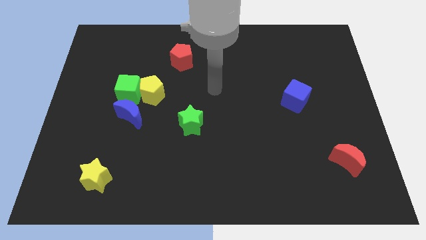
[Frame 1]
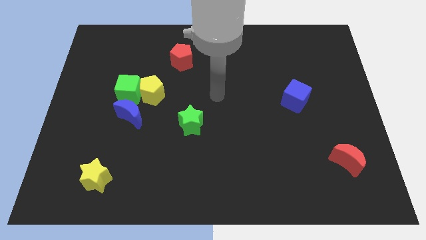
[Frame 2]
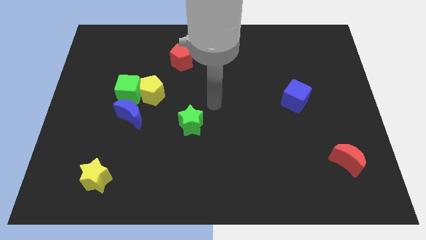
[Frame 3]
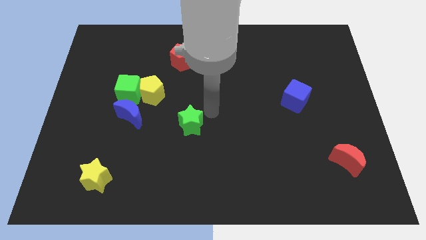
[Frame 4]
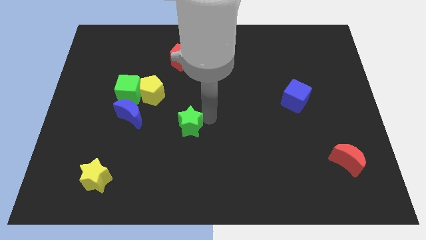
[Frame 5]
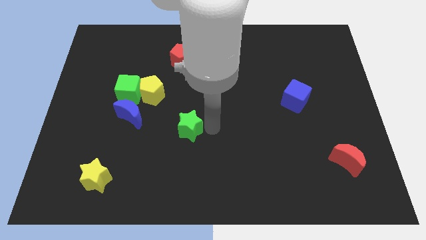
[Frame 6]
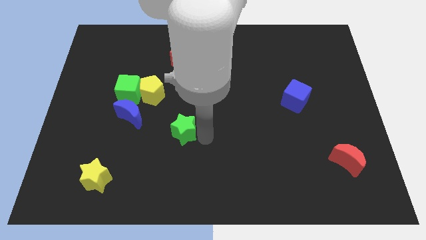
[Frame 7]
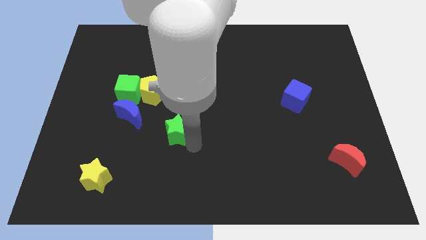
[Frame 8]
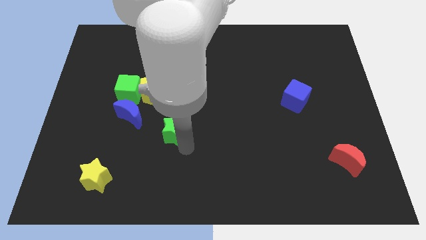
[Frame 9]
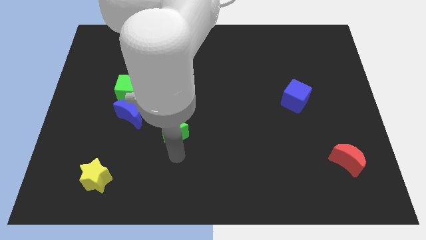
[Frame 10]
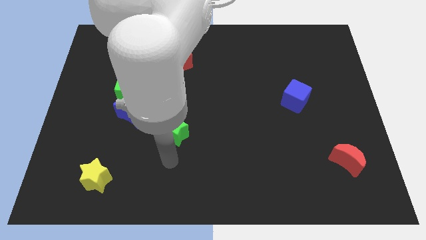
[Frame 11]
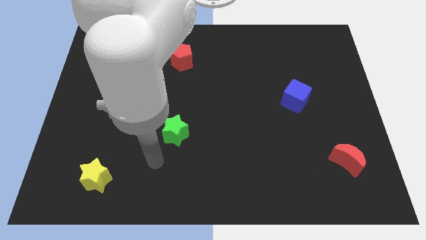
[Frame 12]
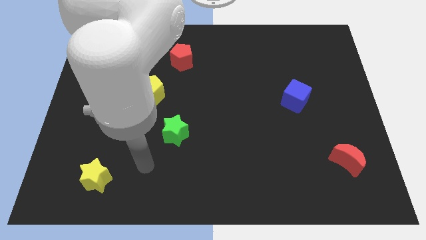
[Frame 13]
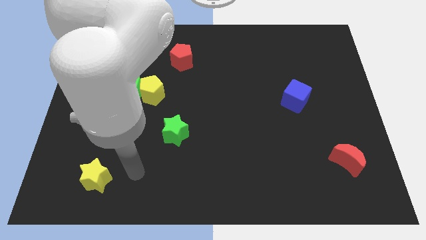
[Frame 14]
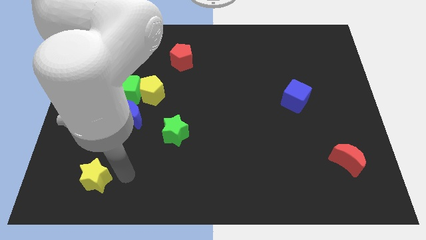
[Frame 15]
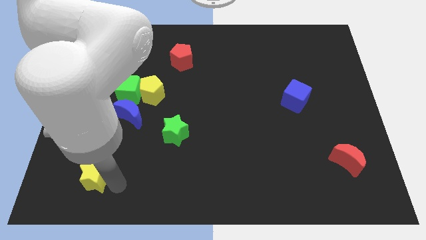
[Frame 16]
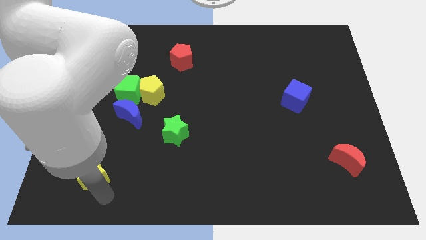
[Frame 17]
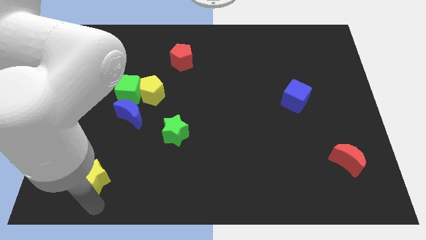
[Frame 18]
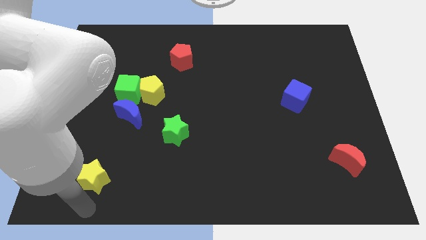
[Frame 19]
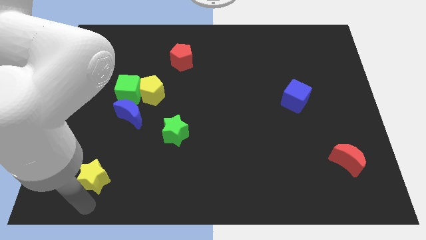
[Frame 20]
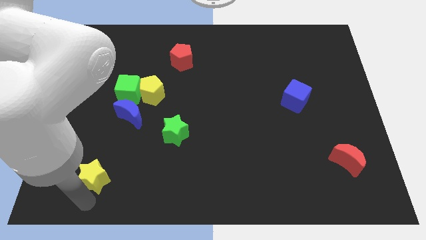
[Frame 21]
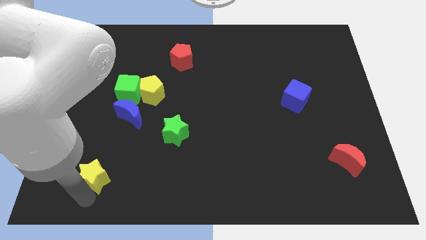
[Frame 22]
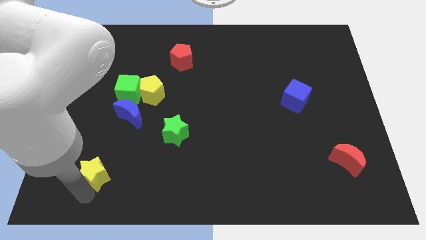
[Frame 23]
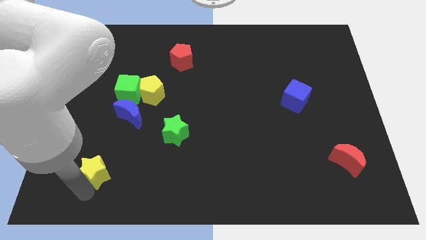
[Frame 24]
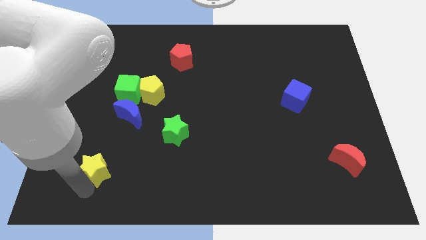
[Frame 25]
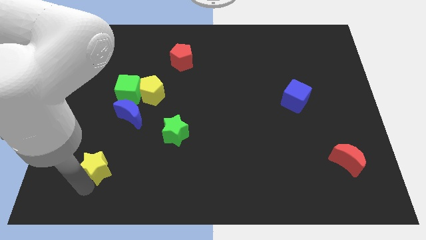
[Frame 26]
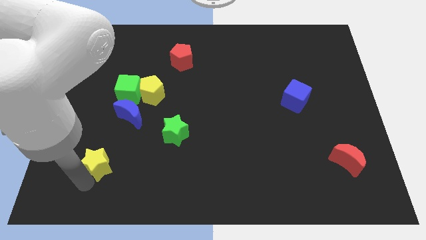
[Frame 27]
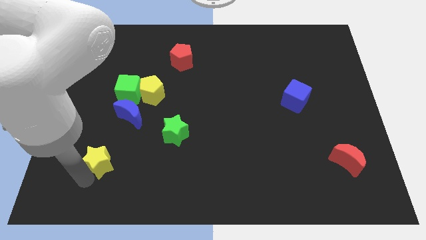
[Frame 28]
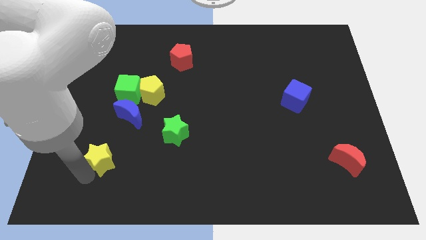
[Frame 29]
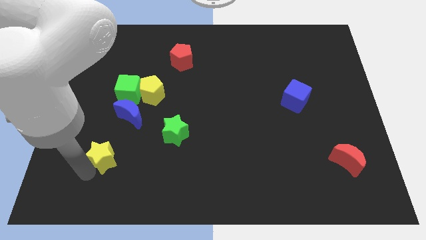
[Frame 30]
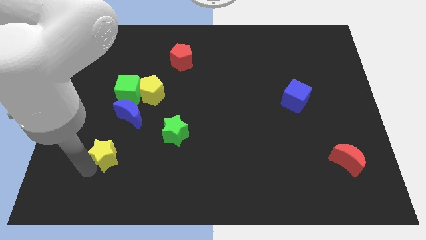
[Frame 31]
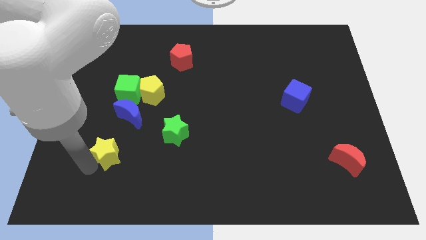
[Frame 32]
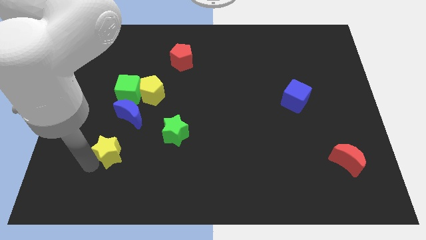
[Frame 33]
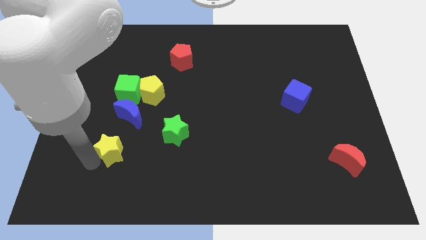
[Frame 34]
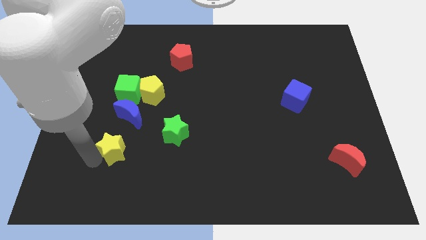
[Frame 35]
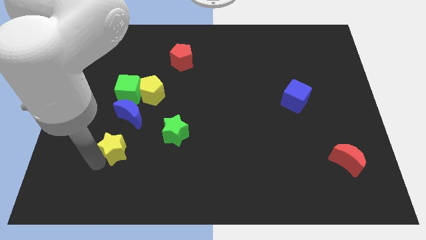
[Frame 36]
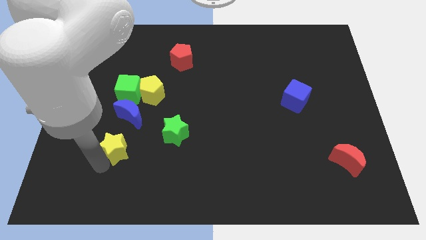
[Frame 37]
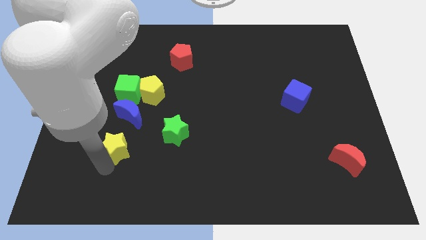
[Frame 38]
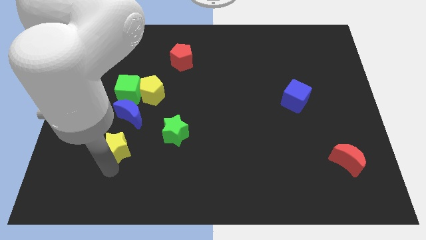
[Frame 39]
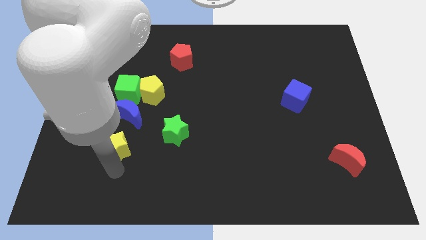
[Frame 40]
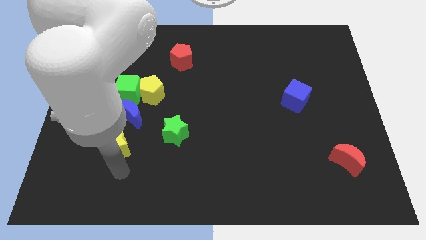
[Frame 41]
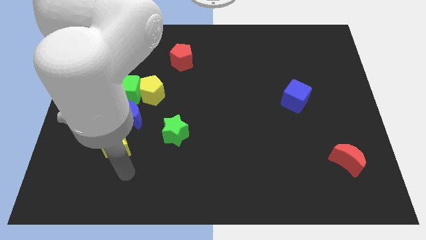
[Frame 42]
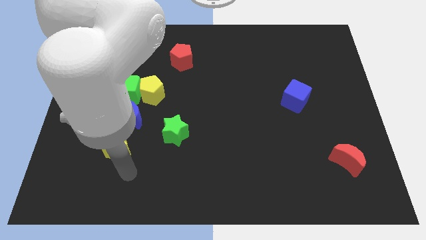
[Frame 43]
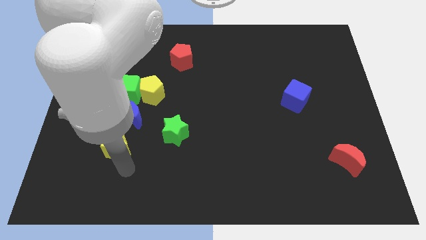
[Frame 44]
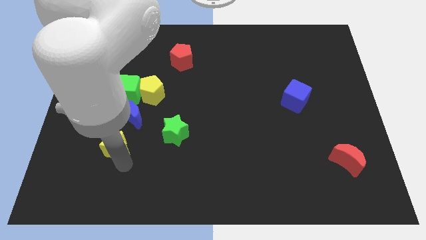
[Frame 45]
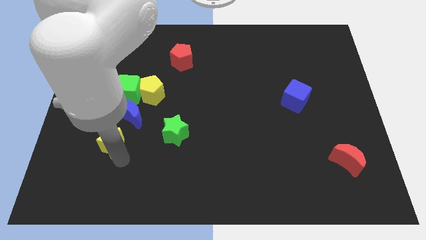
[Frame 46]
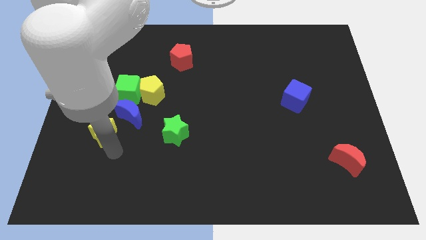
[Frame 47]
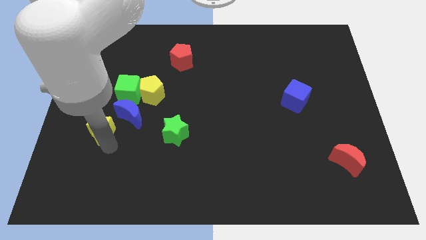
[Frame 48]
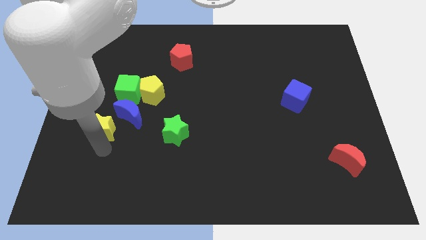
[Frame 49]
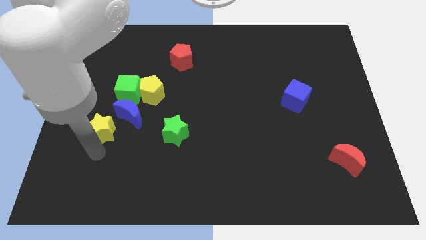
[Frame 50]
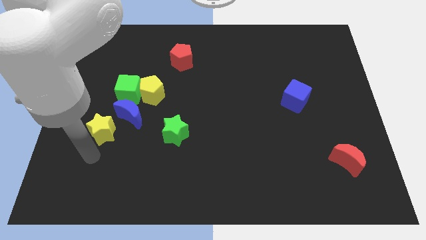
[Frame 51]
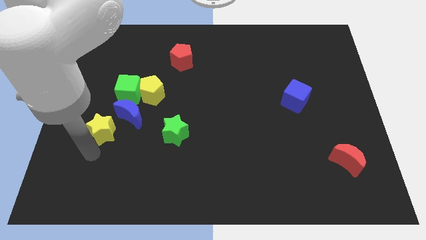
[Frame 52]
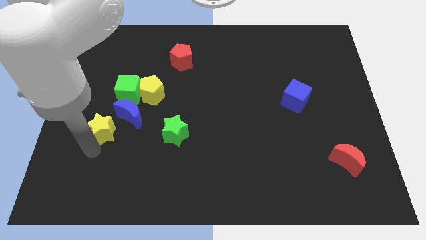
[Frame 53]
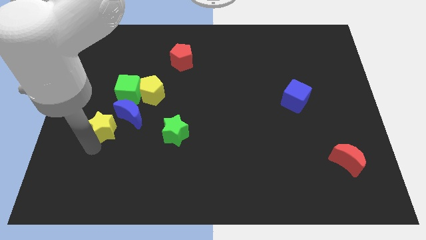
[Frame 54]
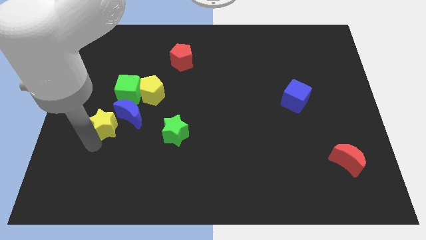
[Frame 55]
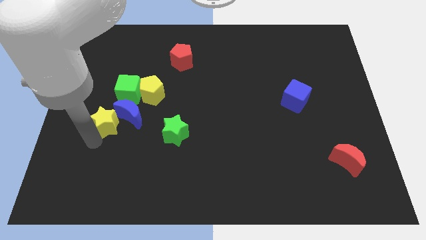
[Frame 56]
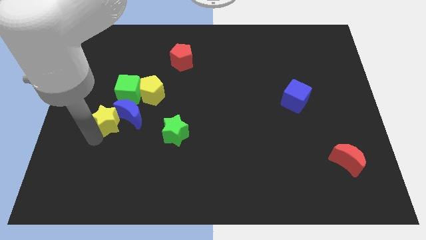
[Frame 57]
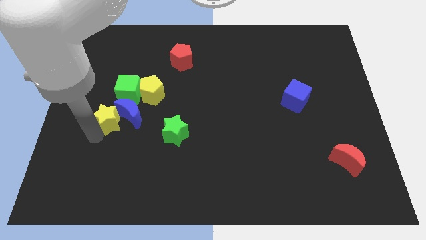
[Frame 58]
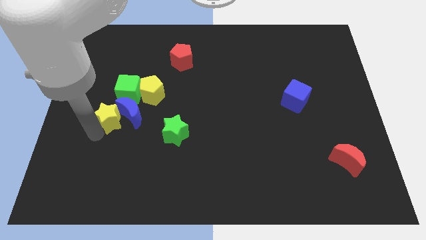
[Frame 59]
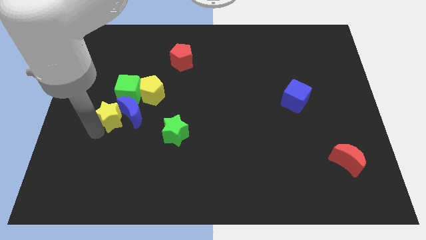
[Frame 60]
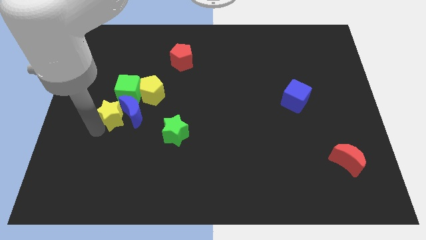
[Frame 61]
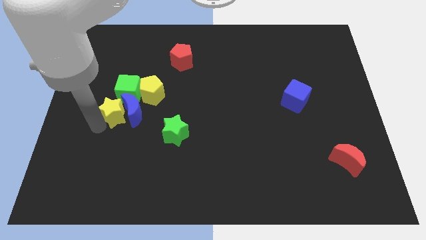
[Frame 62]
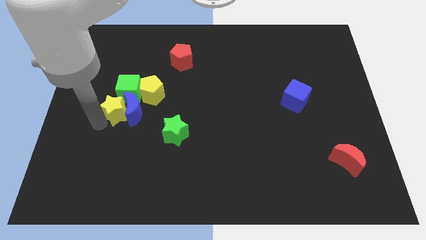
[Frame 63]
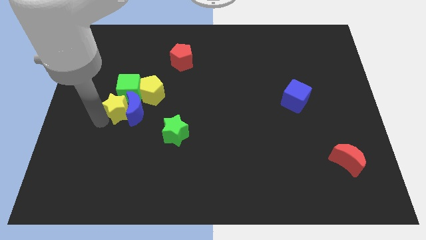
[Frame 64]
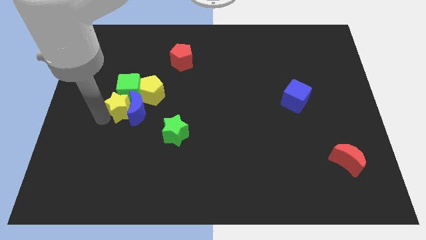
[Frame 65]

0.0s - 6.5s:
move the yellow star close to the green cube

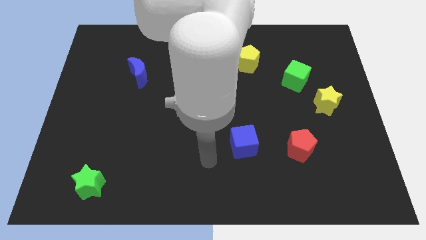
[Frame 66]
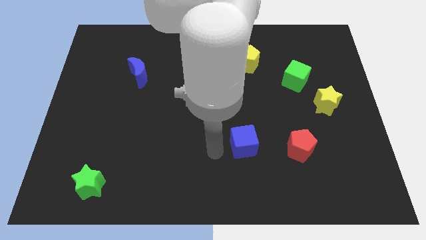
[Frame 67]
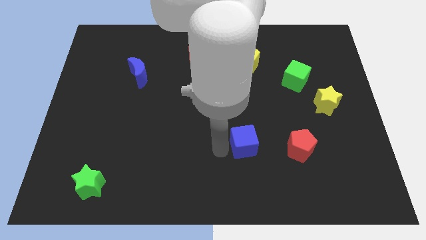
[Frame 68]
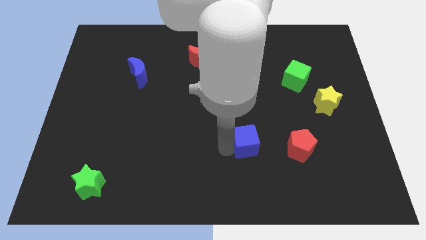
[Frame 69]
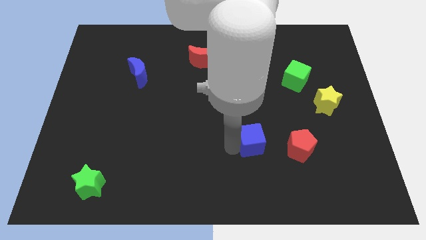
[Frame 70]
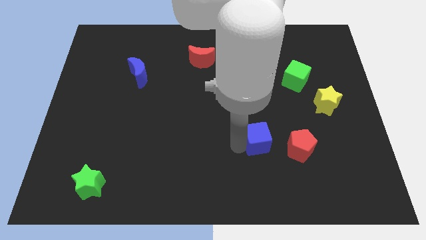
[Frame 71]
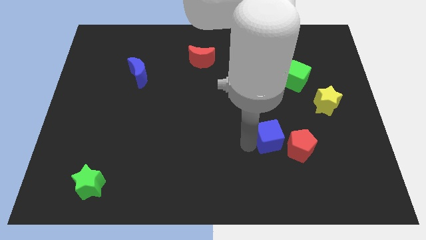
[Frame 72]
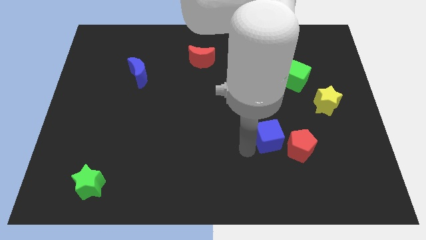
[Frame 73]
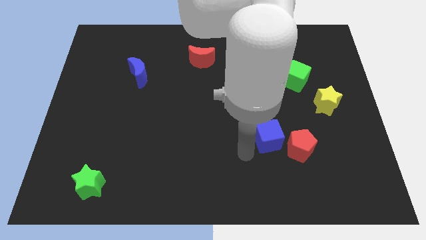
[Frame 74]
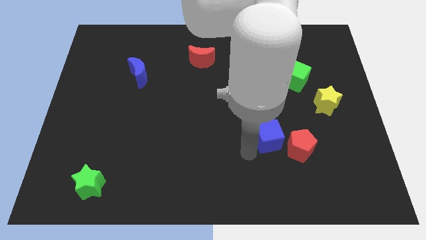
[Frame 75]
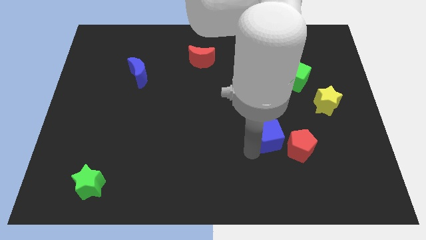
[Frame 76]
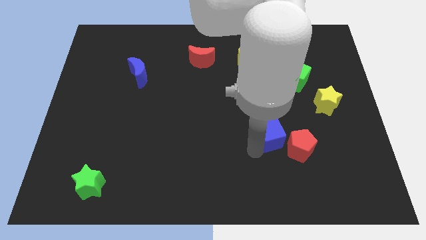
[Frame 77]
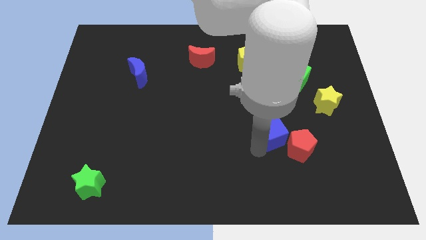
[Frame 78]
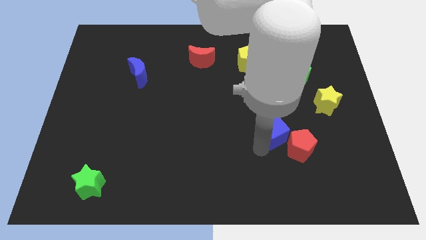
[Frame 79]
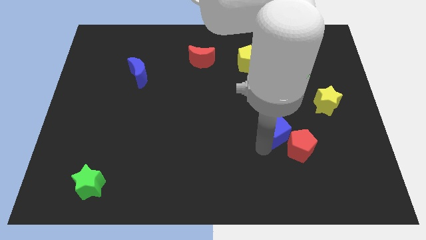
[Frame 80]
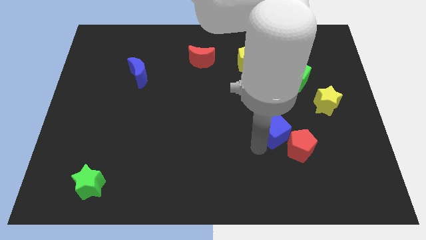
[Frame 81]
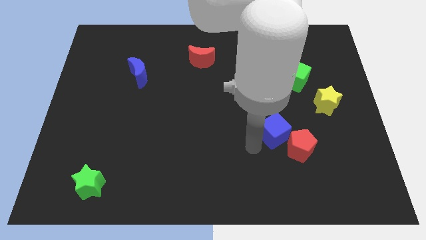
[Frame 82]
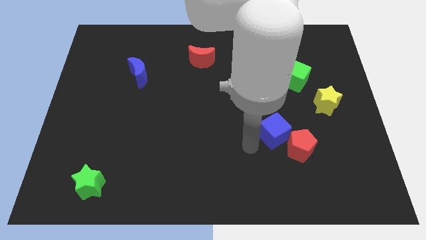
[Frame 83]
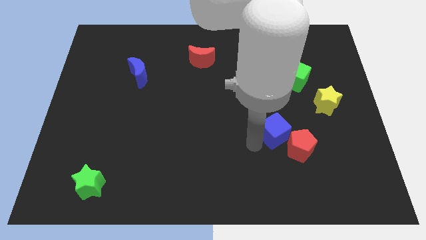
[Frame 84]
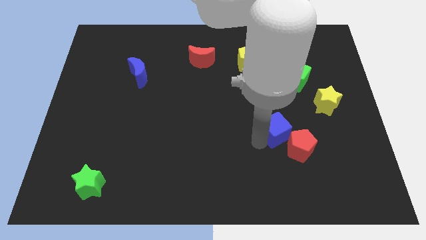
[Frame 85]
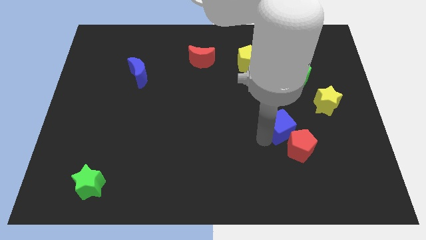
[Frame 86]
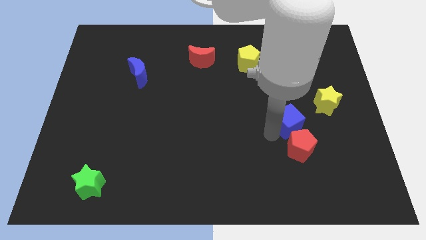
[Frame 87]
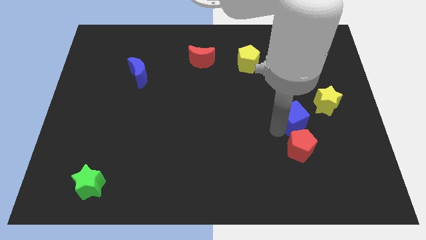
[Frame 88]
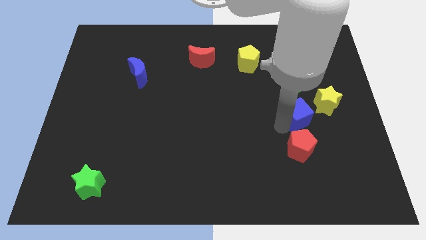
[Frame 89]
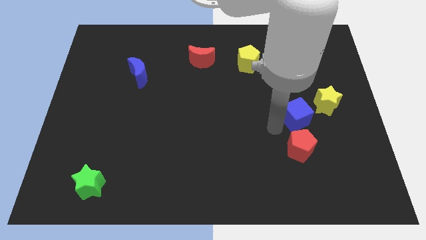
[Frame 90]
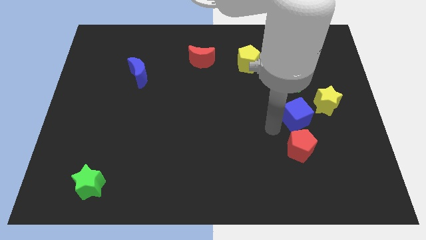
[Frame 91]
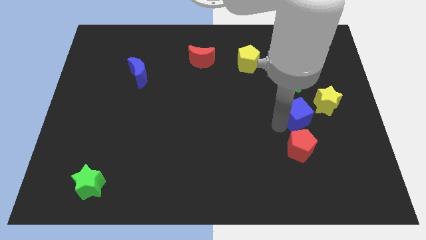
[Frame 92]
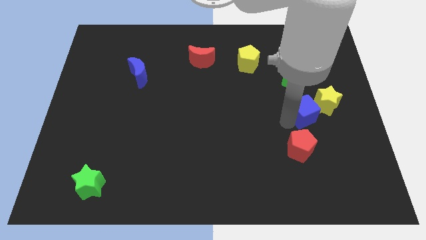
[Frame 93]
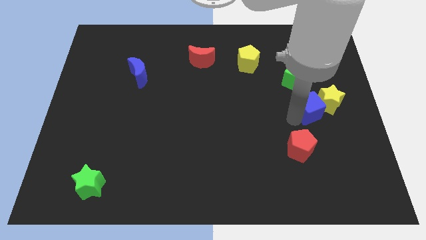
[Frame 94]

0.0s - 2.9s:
push the blue cube close to the yellow star
